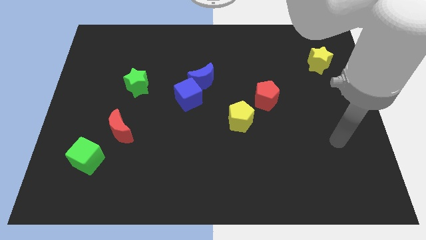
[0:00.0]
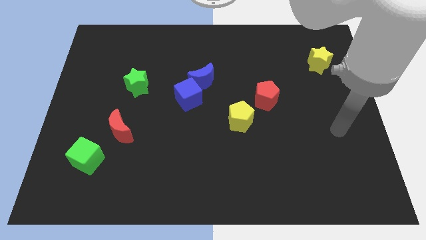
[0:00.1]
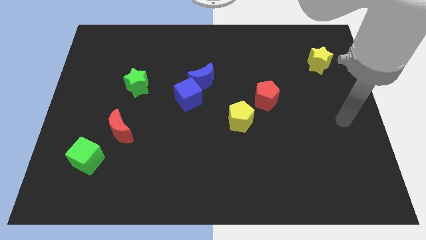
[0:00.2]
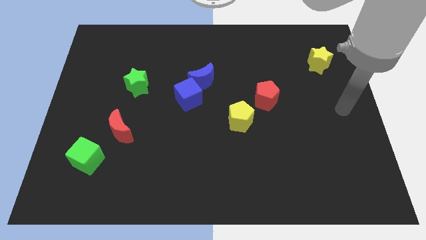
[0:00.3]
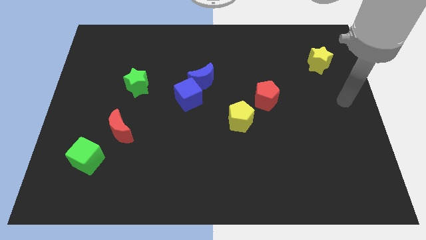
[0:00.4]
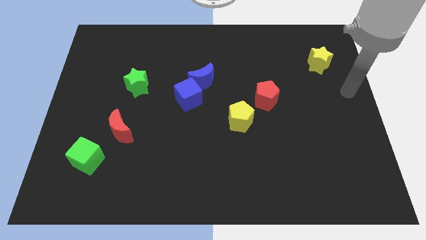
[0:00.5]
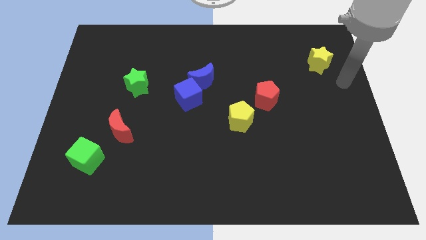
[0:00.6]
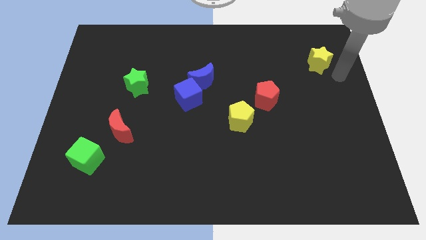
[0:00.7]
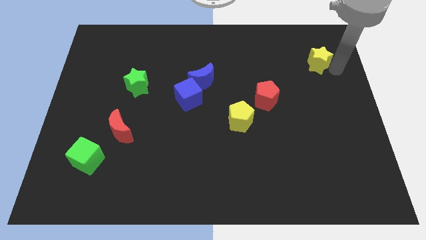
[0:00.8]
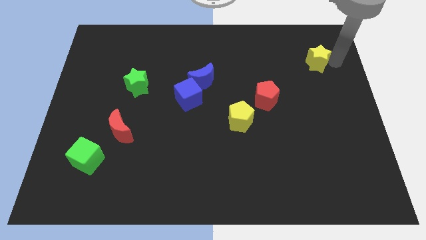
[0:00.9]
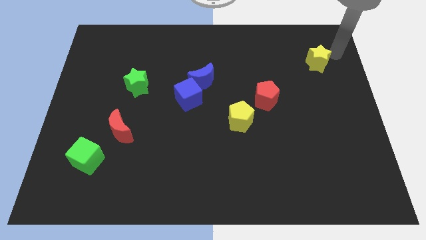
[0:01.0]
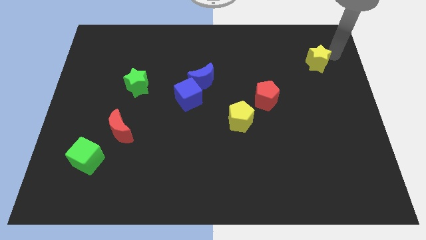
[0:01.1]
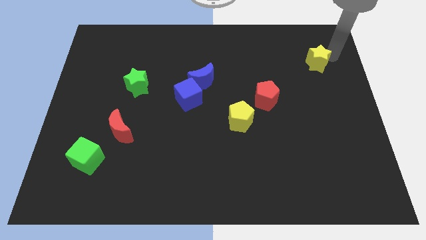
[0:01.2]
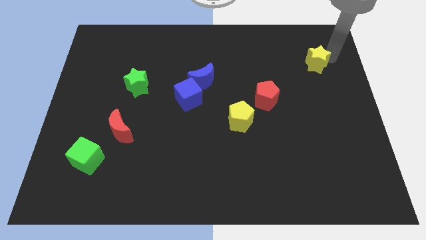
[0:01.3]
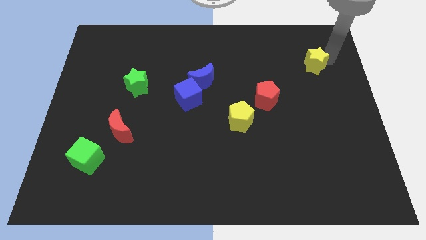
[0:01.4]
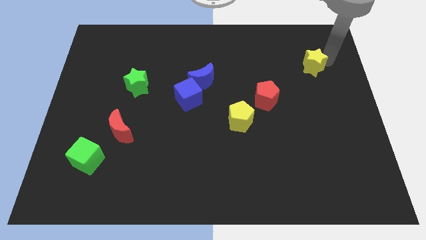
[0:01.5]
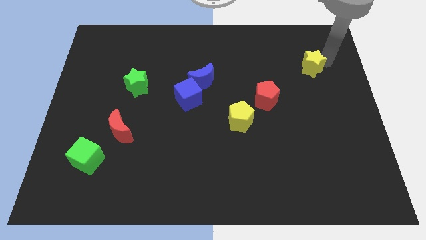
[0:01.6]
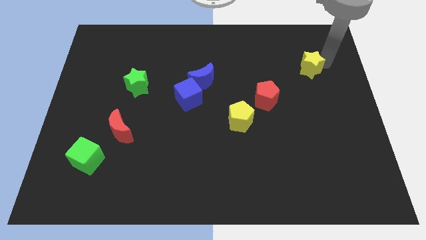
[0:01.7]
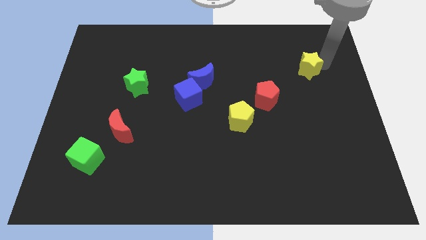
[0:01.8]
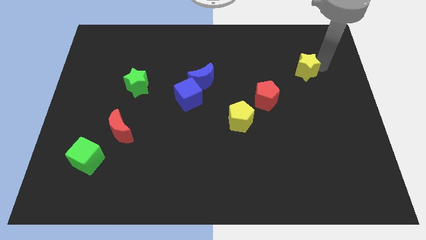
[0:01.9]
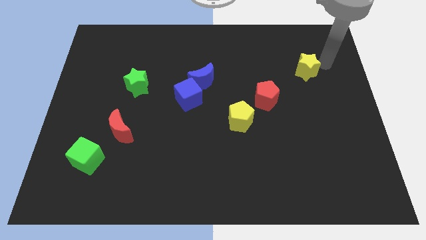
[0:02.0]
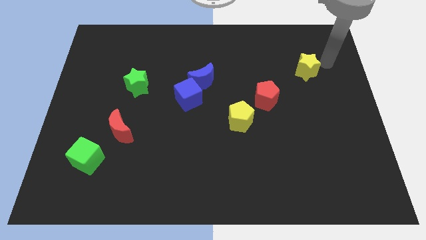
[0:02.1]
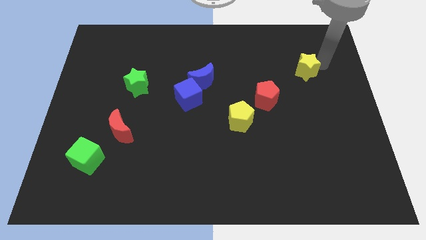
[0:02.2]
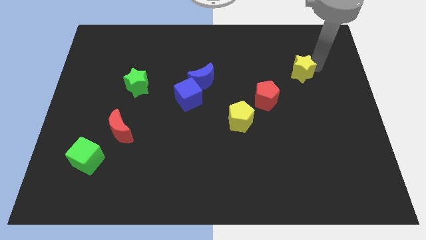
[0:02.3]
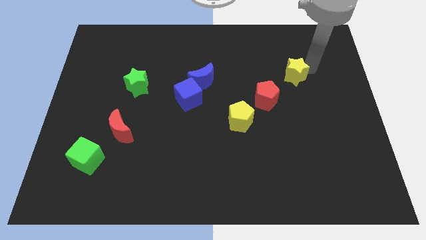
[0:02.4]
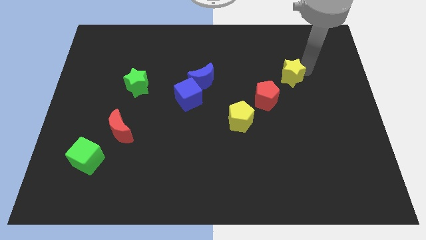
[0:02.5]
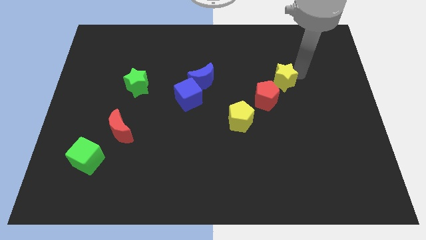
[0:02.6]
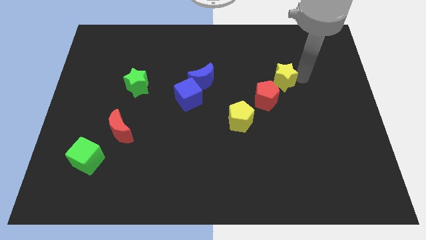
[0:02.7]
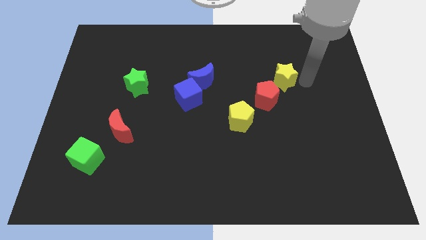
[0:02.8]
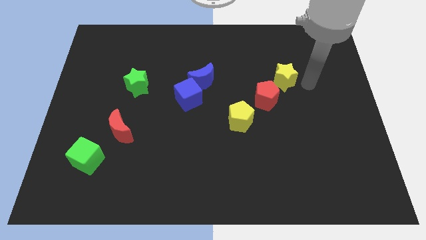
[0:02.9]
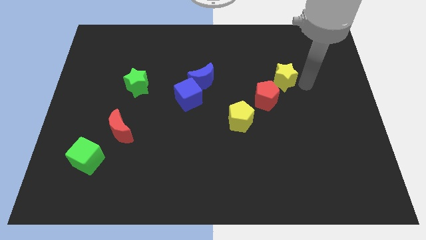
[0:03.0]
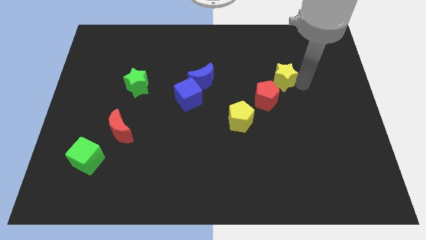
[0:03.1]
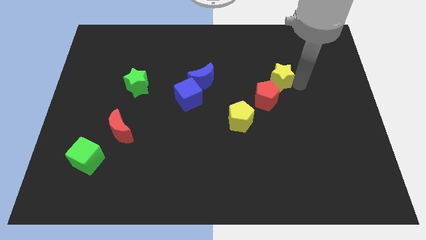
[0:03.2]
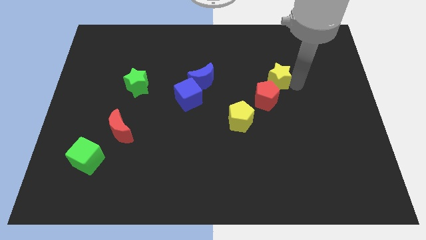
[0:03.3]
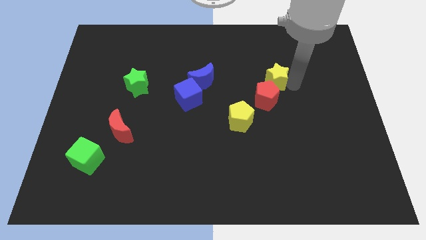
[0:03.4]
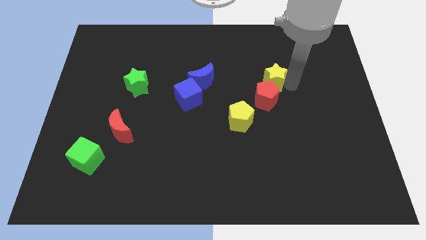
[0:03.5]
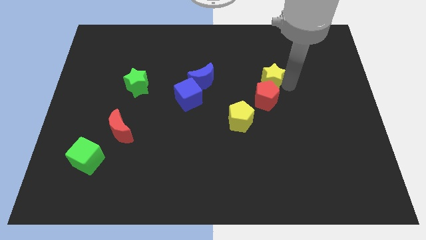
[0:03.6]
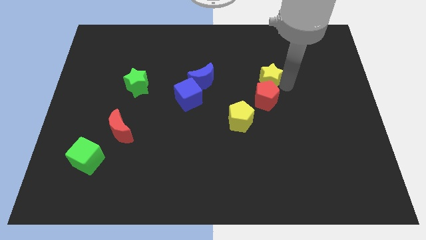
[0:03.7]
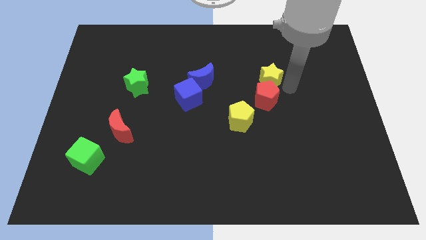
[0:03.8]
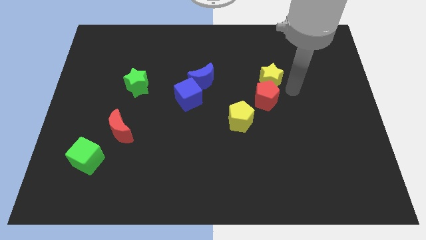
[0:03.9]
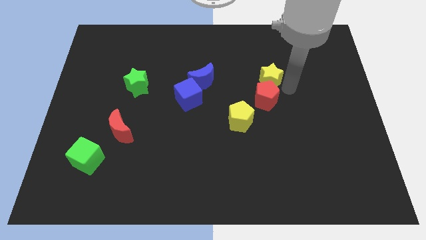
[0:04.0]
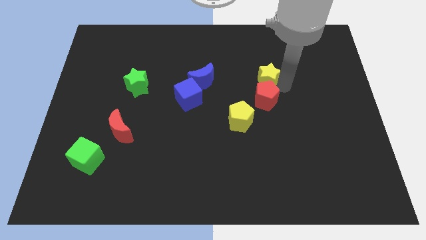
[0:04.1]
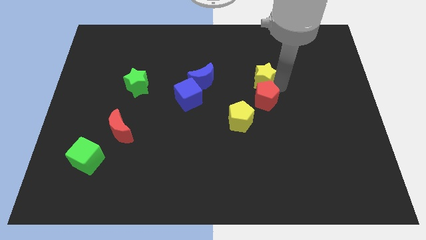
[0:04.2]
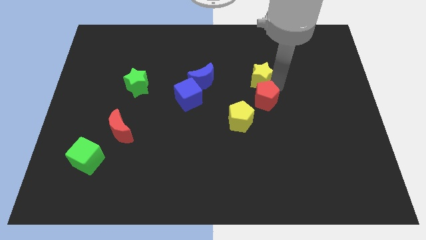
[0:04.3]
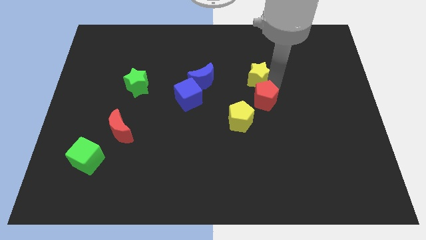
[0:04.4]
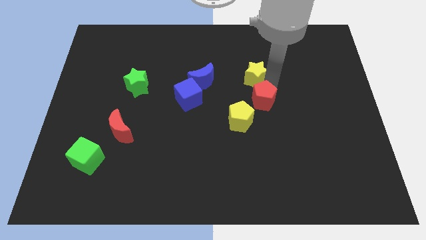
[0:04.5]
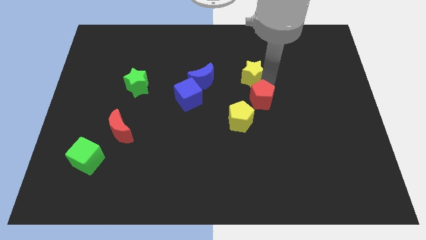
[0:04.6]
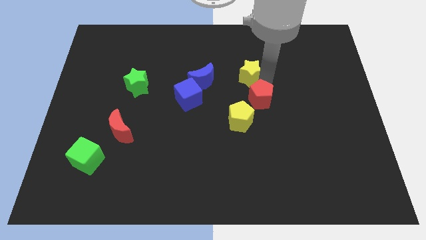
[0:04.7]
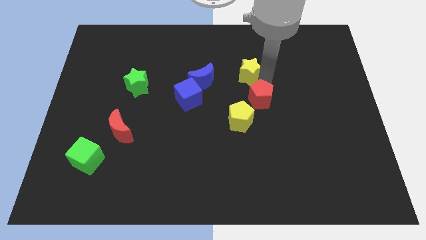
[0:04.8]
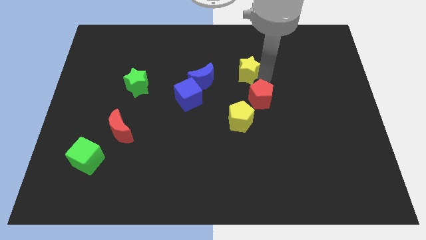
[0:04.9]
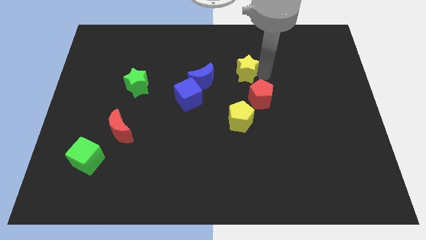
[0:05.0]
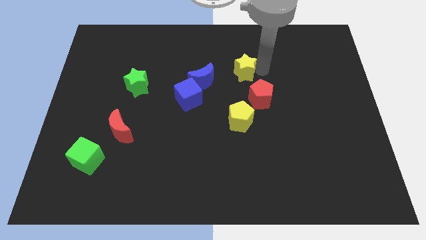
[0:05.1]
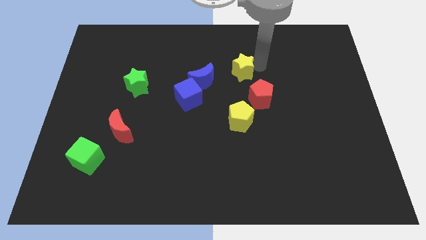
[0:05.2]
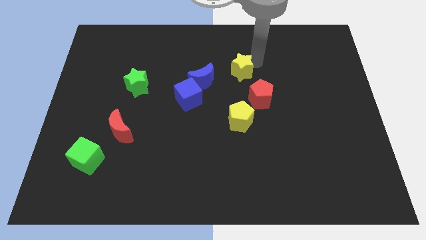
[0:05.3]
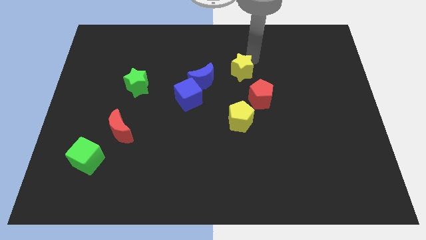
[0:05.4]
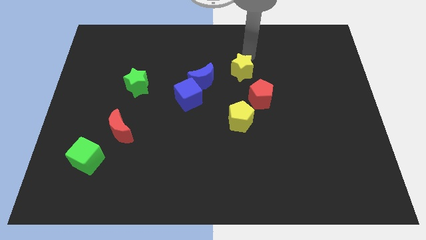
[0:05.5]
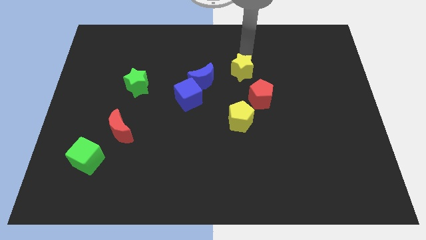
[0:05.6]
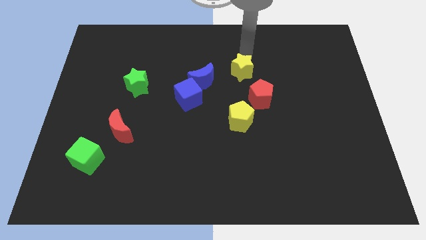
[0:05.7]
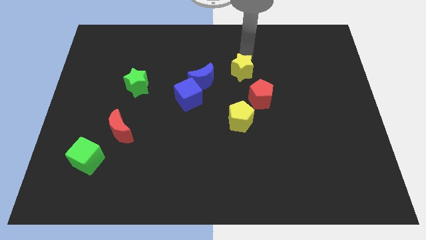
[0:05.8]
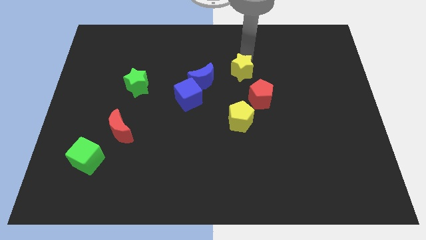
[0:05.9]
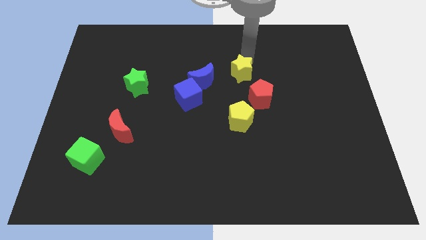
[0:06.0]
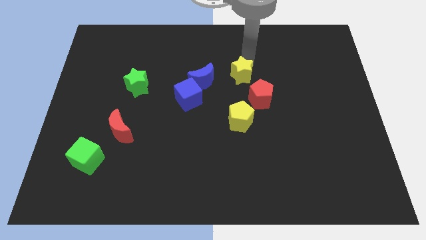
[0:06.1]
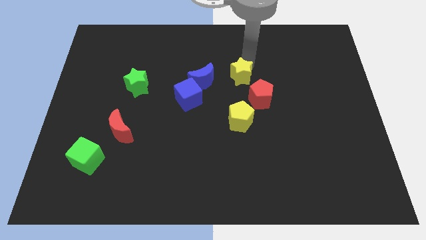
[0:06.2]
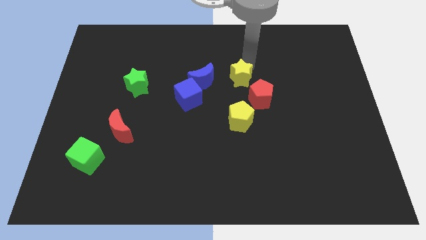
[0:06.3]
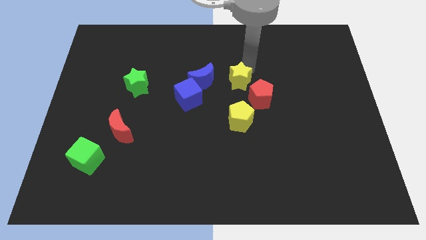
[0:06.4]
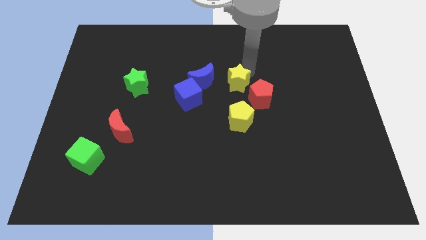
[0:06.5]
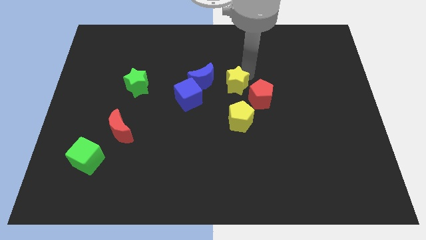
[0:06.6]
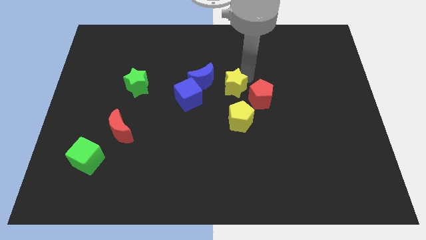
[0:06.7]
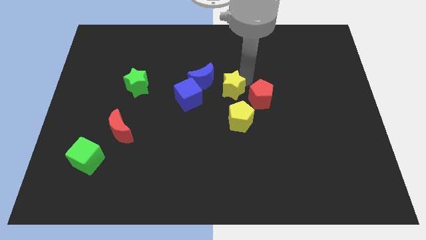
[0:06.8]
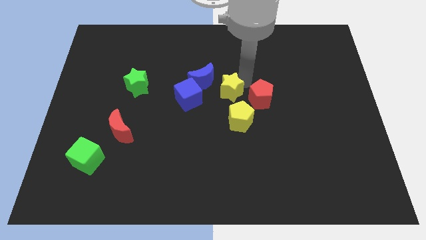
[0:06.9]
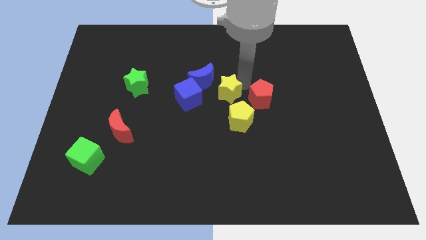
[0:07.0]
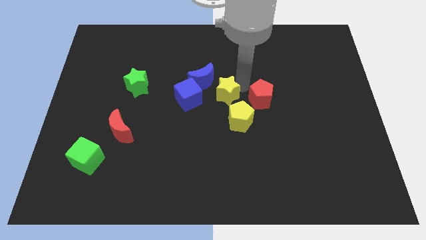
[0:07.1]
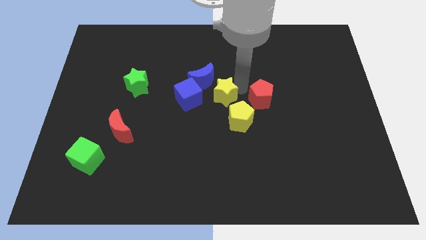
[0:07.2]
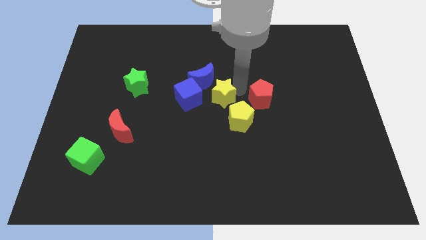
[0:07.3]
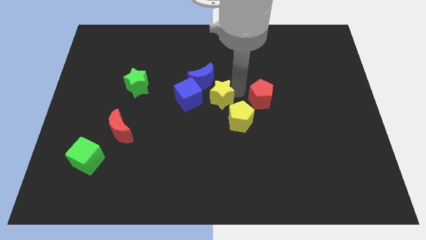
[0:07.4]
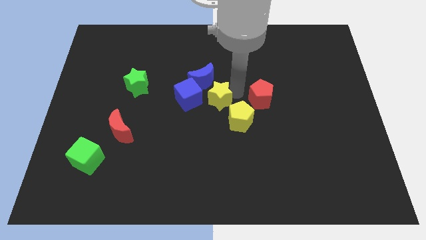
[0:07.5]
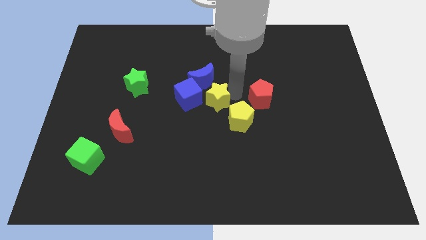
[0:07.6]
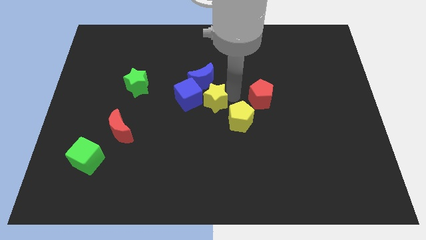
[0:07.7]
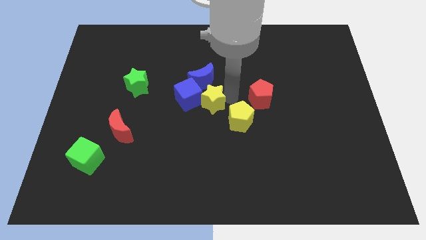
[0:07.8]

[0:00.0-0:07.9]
slide the yellow star close to the blue cube
